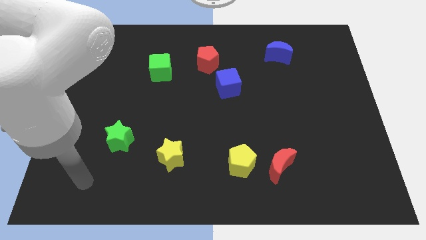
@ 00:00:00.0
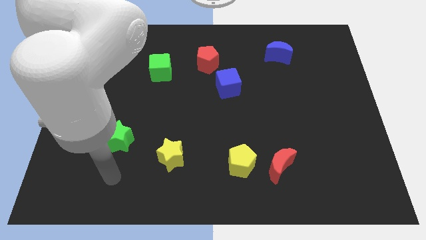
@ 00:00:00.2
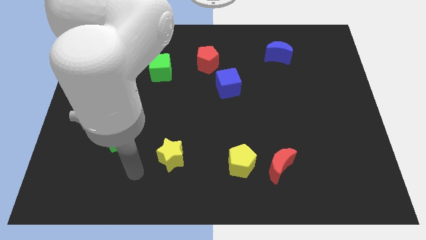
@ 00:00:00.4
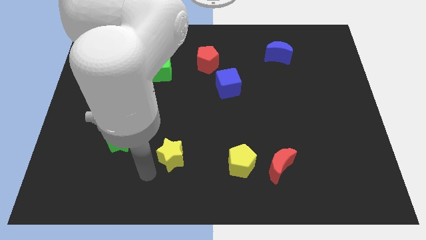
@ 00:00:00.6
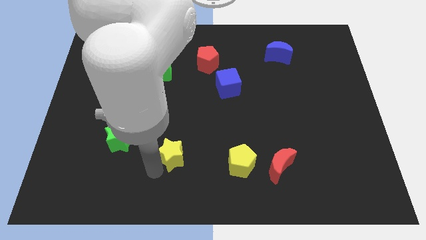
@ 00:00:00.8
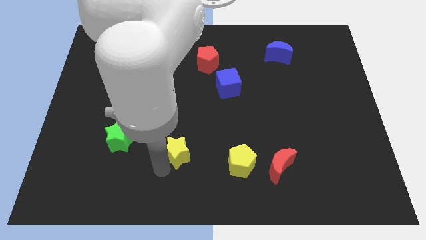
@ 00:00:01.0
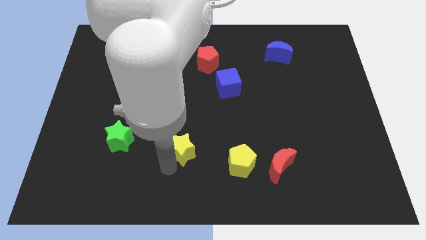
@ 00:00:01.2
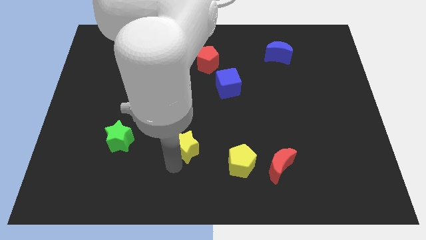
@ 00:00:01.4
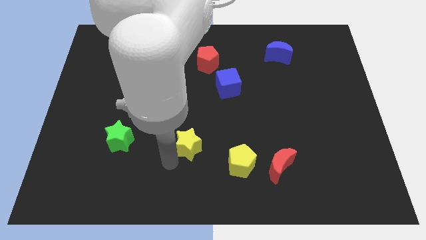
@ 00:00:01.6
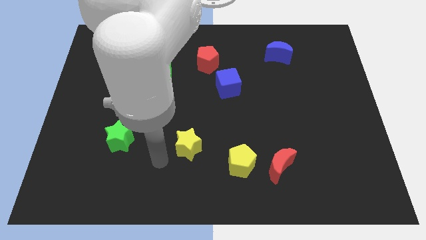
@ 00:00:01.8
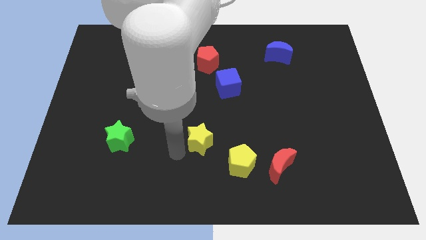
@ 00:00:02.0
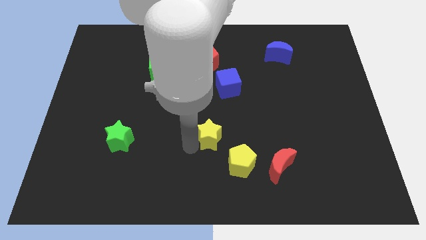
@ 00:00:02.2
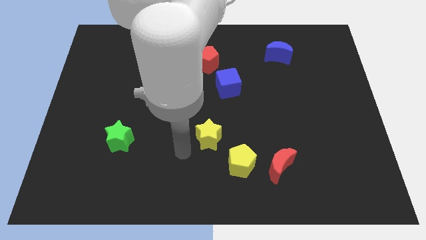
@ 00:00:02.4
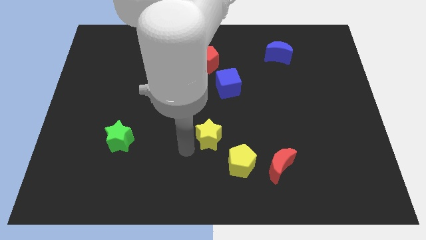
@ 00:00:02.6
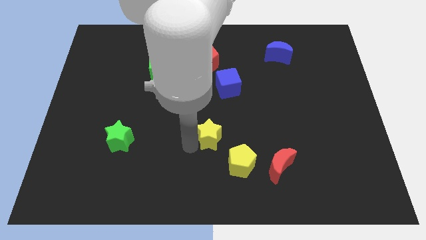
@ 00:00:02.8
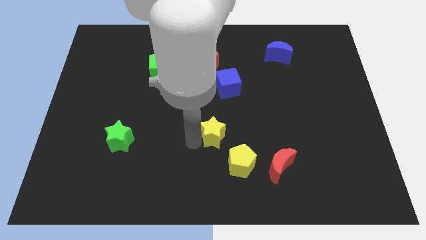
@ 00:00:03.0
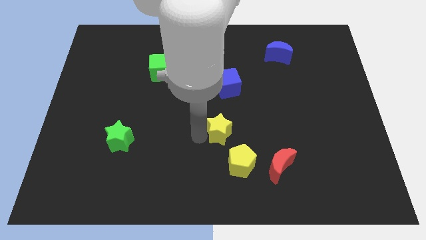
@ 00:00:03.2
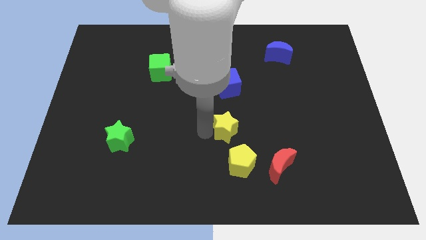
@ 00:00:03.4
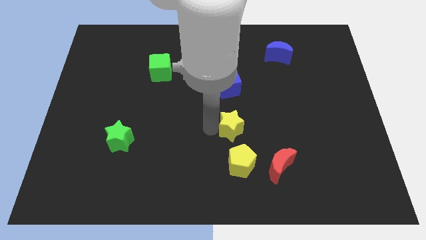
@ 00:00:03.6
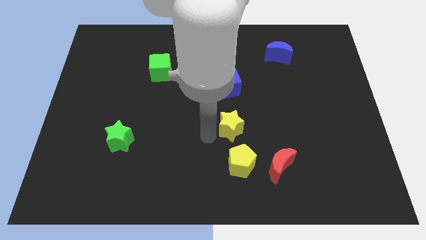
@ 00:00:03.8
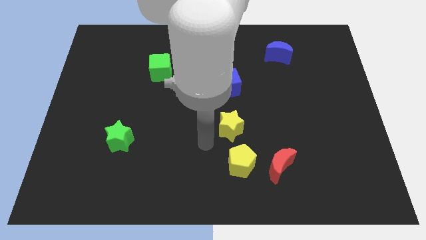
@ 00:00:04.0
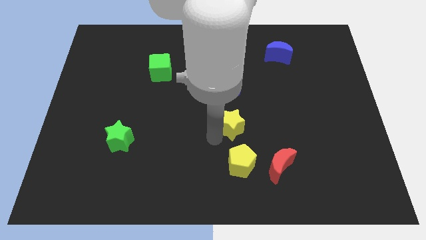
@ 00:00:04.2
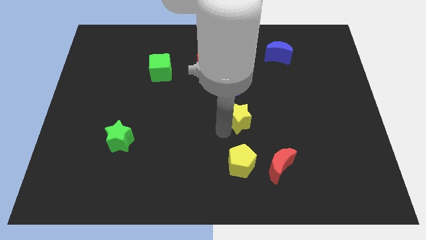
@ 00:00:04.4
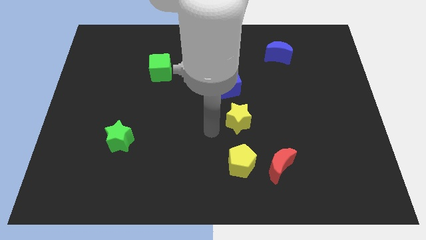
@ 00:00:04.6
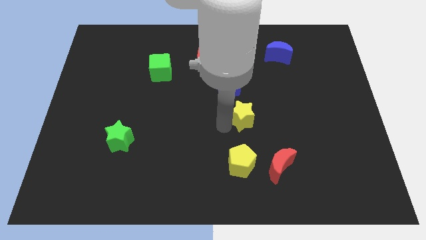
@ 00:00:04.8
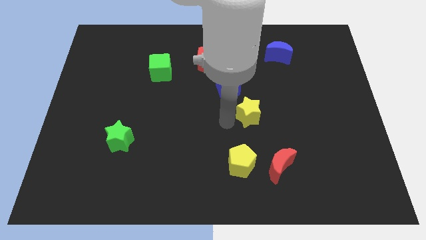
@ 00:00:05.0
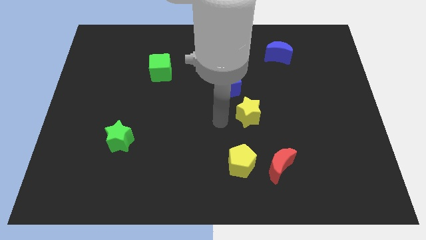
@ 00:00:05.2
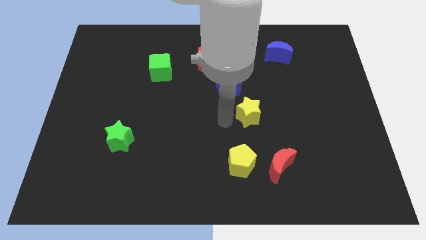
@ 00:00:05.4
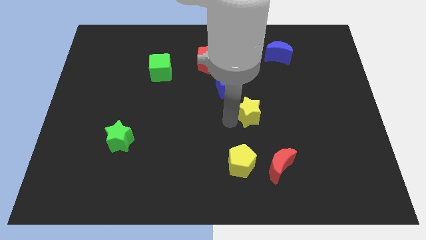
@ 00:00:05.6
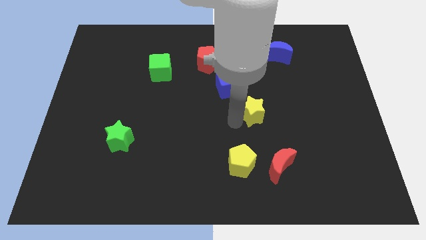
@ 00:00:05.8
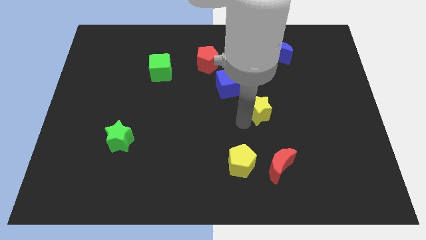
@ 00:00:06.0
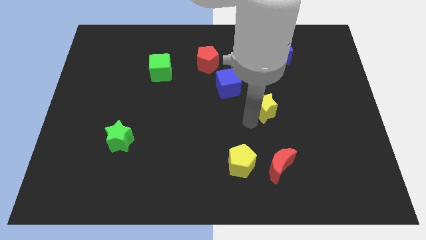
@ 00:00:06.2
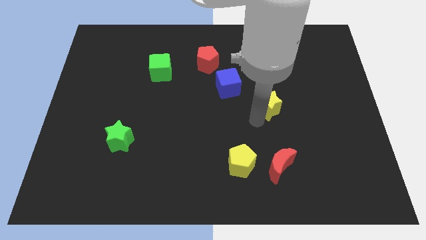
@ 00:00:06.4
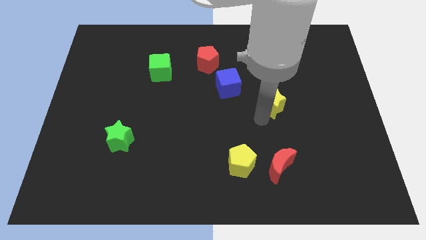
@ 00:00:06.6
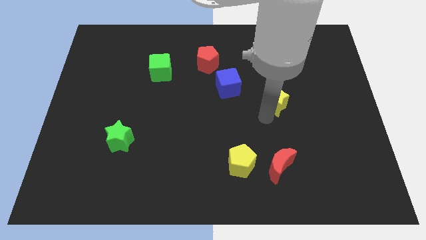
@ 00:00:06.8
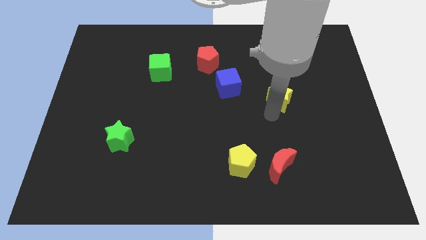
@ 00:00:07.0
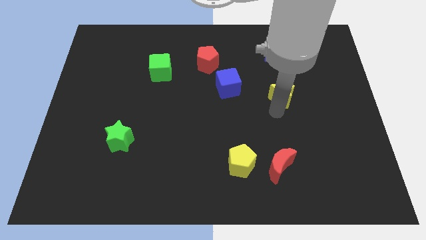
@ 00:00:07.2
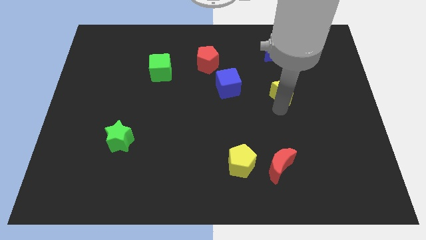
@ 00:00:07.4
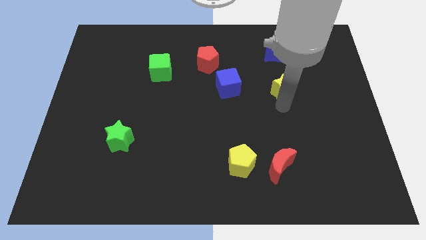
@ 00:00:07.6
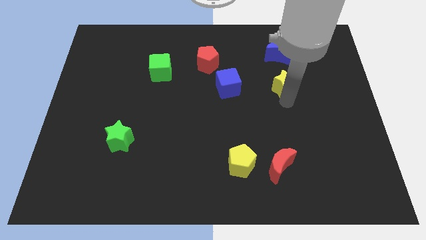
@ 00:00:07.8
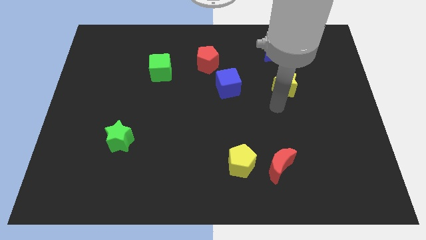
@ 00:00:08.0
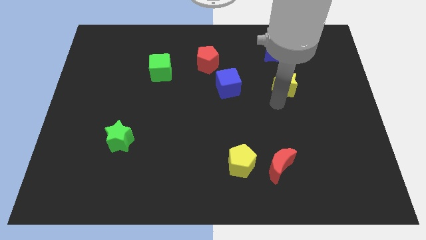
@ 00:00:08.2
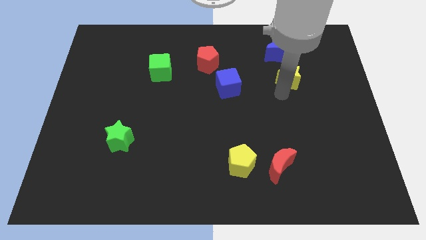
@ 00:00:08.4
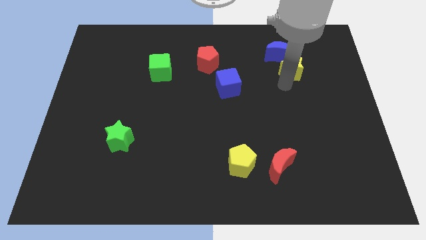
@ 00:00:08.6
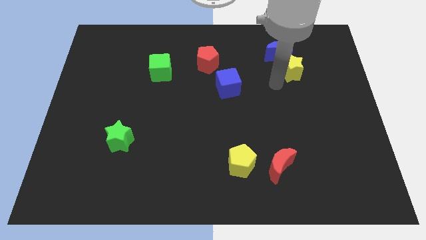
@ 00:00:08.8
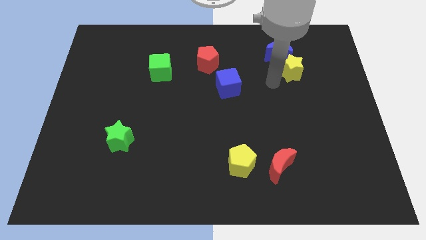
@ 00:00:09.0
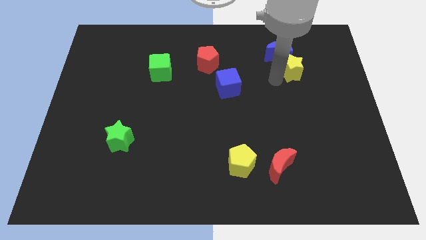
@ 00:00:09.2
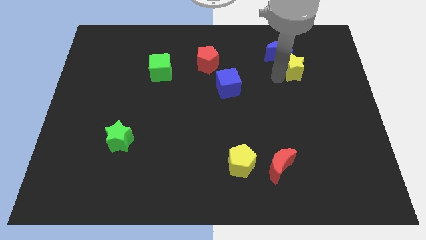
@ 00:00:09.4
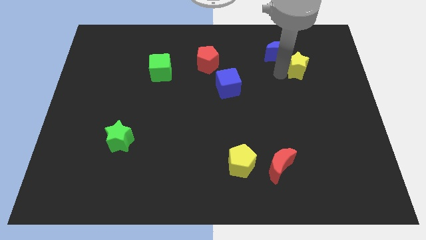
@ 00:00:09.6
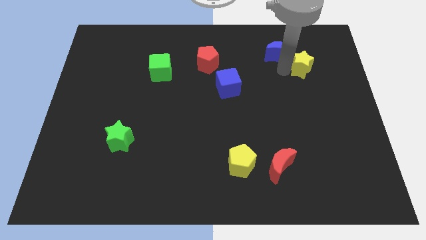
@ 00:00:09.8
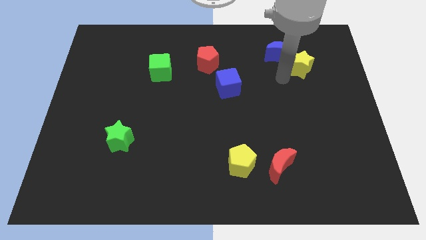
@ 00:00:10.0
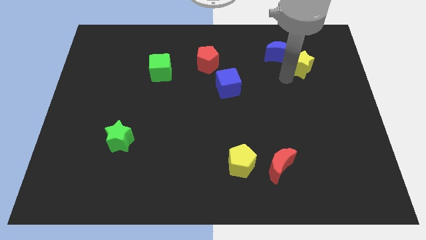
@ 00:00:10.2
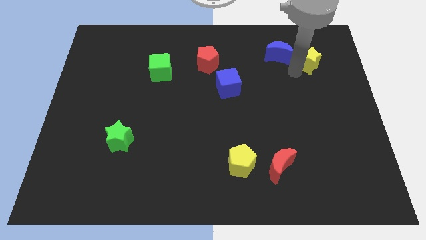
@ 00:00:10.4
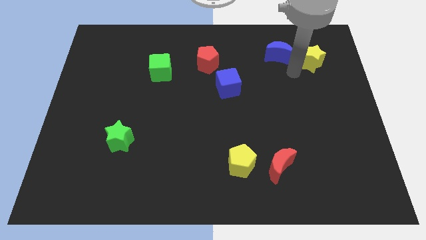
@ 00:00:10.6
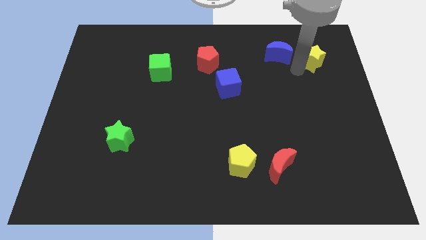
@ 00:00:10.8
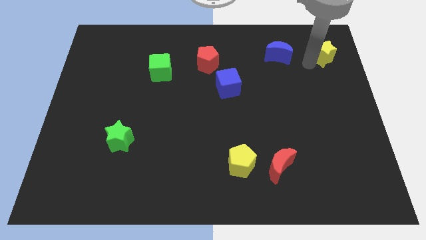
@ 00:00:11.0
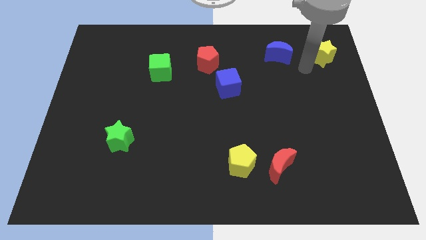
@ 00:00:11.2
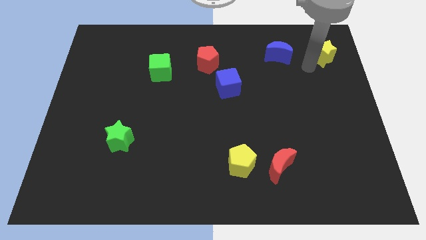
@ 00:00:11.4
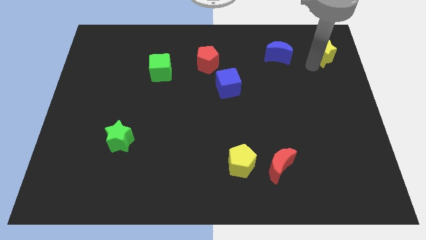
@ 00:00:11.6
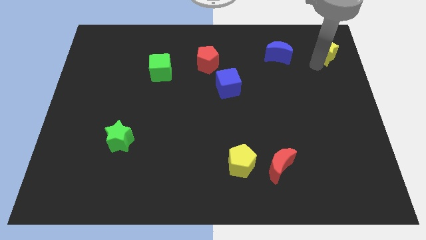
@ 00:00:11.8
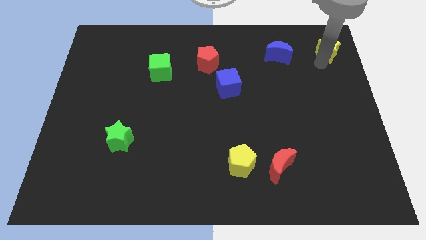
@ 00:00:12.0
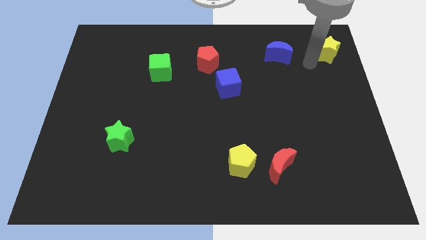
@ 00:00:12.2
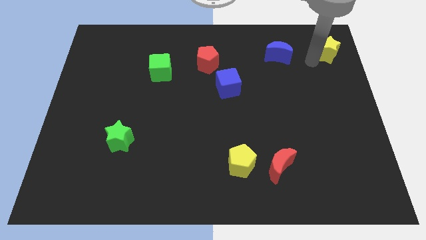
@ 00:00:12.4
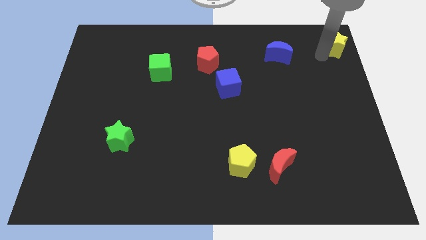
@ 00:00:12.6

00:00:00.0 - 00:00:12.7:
push the yellow star to the upper right corner
